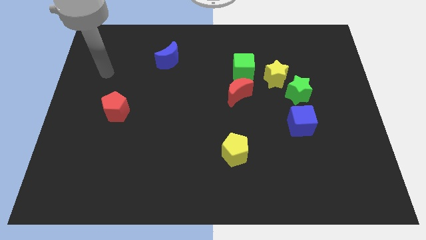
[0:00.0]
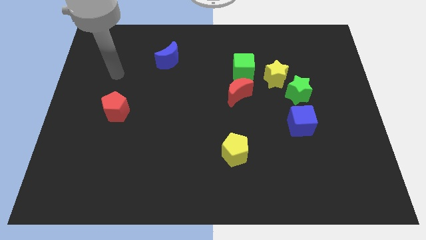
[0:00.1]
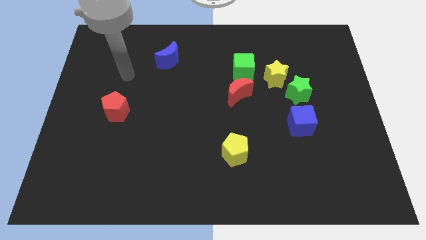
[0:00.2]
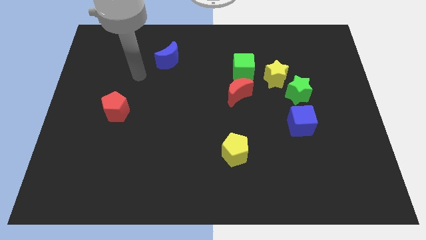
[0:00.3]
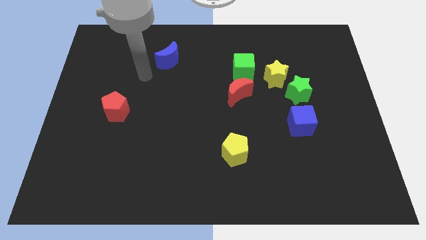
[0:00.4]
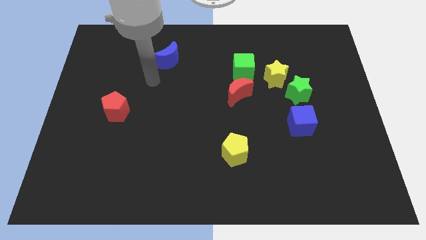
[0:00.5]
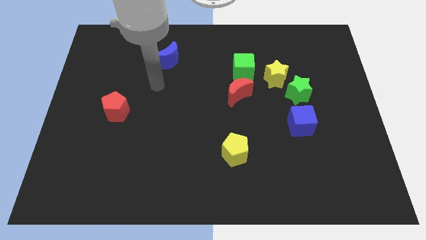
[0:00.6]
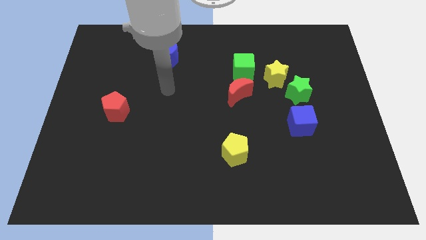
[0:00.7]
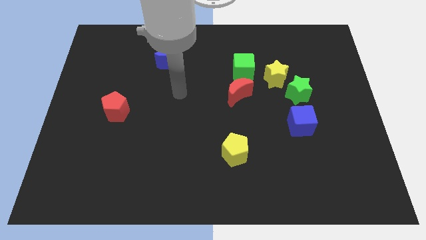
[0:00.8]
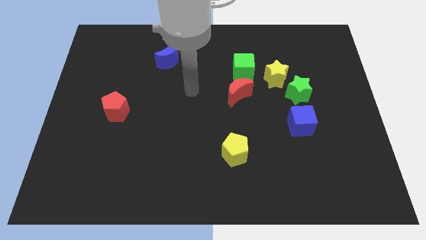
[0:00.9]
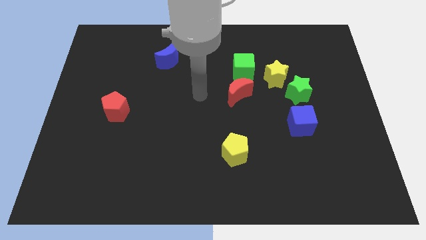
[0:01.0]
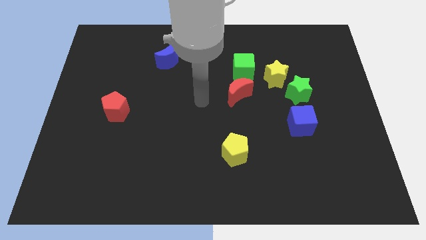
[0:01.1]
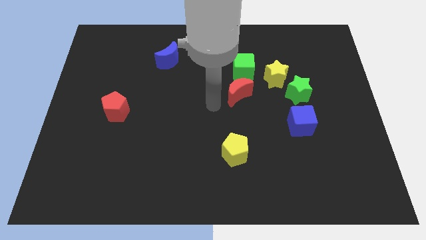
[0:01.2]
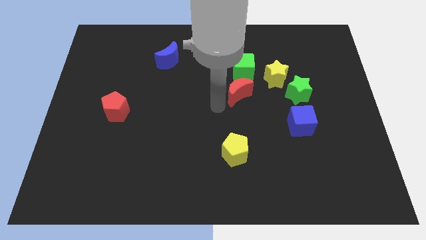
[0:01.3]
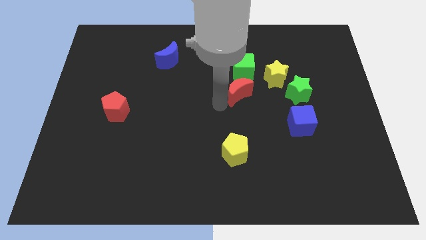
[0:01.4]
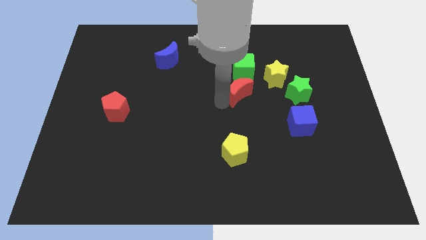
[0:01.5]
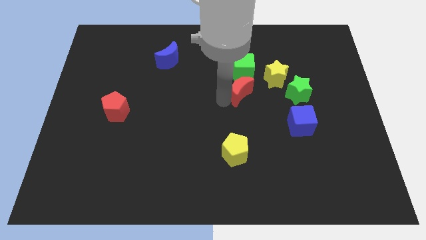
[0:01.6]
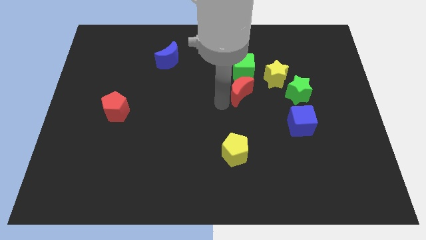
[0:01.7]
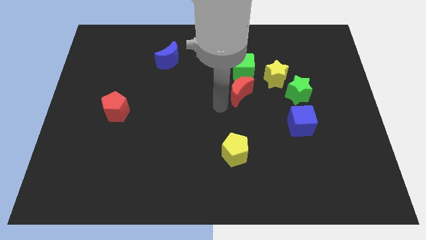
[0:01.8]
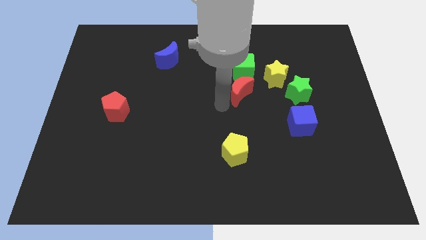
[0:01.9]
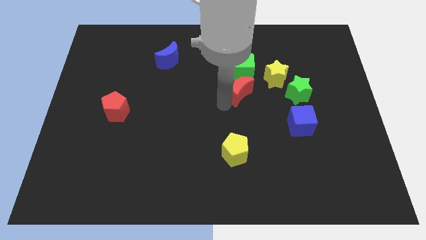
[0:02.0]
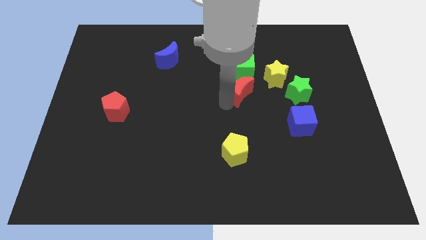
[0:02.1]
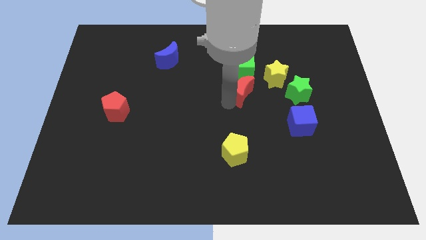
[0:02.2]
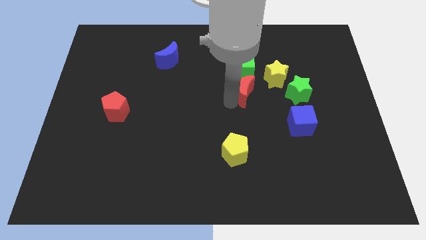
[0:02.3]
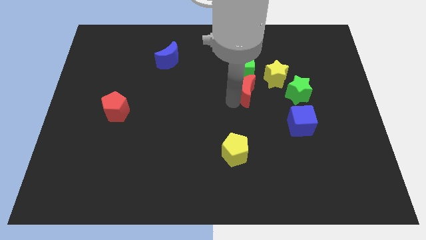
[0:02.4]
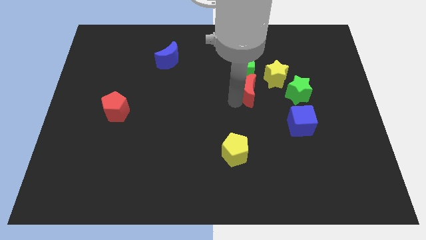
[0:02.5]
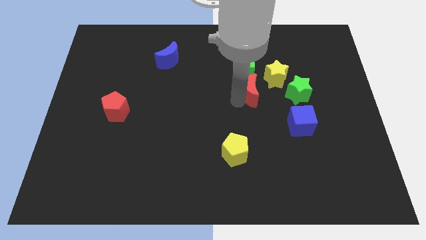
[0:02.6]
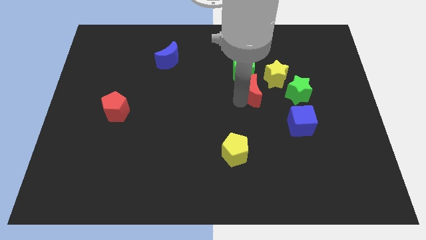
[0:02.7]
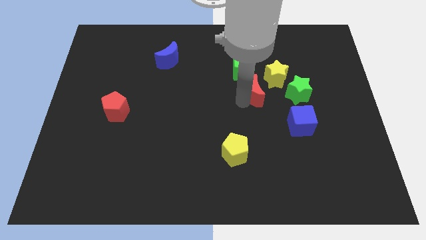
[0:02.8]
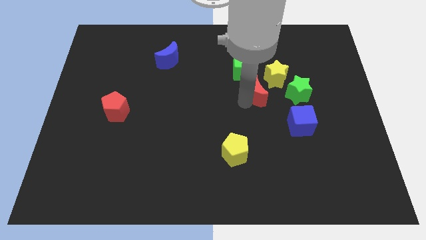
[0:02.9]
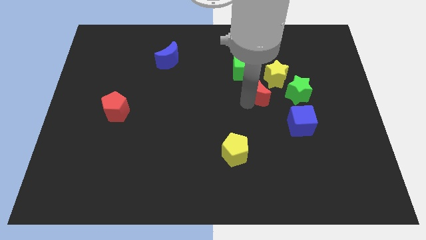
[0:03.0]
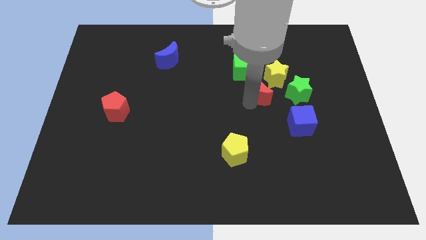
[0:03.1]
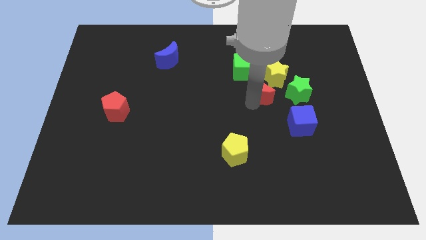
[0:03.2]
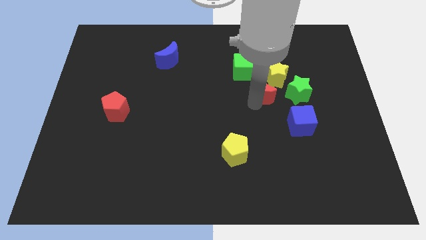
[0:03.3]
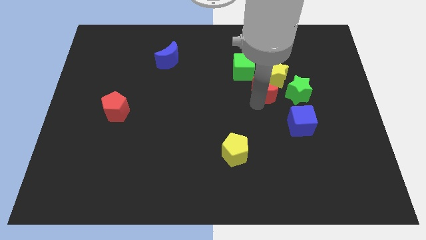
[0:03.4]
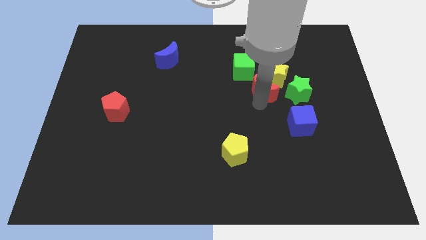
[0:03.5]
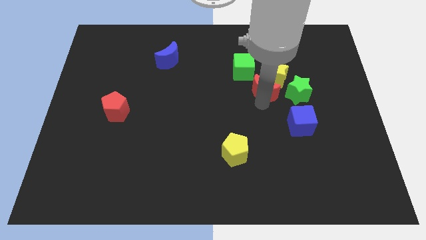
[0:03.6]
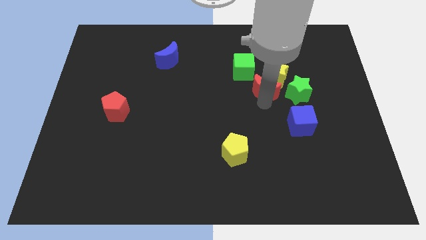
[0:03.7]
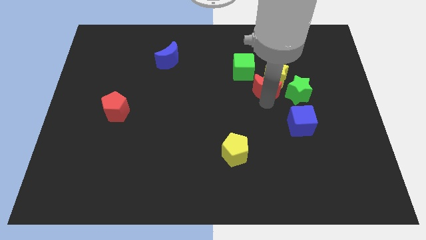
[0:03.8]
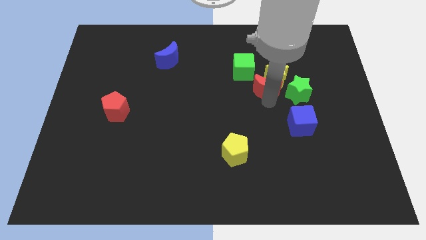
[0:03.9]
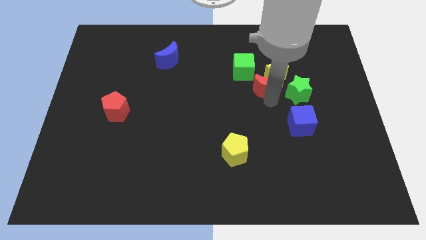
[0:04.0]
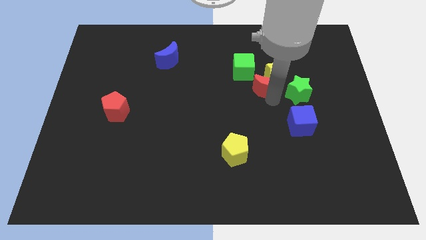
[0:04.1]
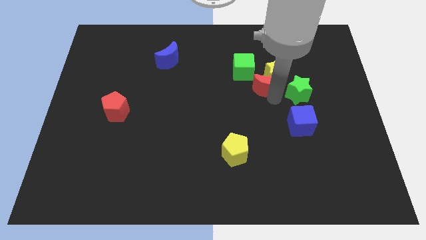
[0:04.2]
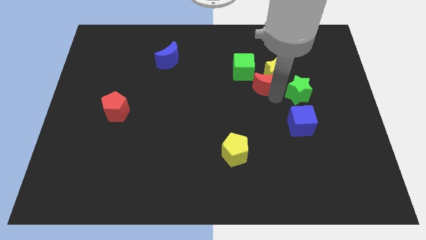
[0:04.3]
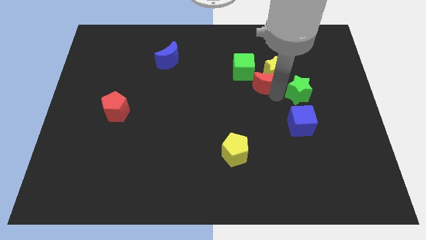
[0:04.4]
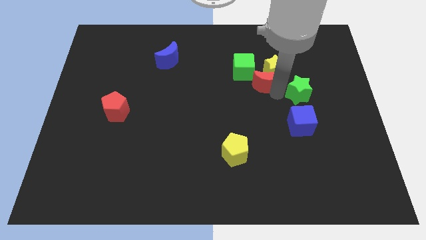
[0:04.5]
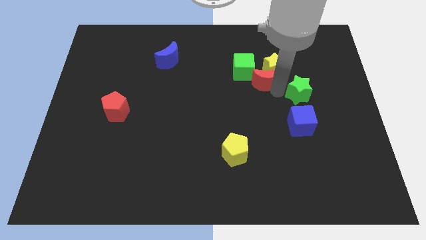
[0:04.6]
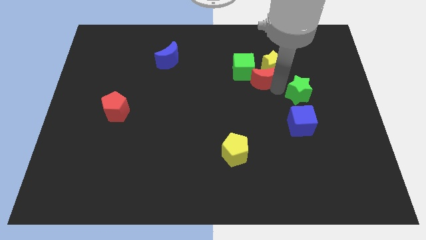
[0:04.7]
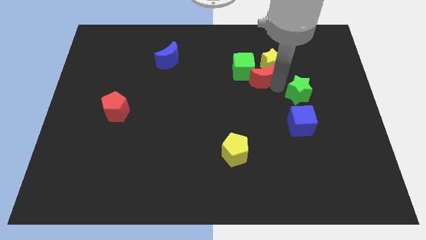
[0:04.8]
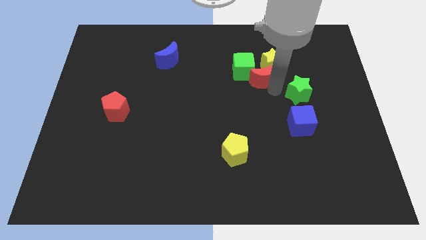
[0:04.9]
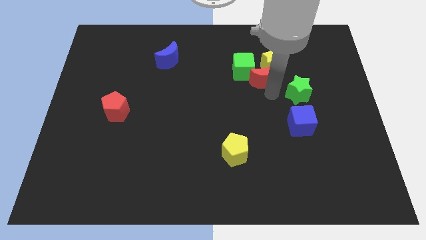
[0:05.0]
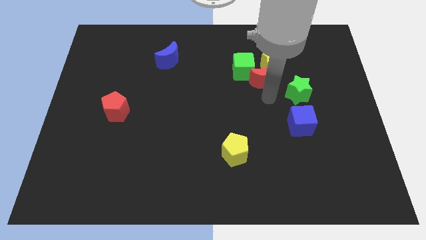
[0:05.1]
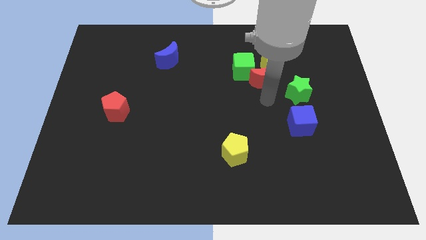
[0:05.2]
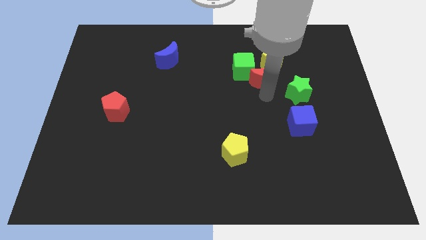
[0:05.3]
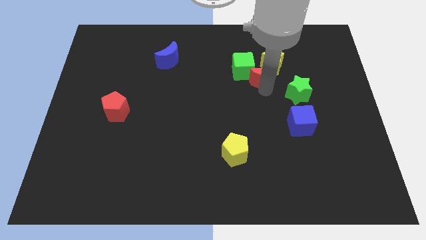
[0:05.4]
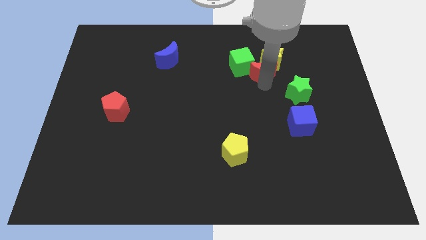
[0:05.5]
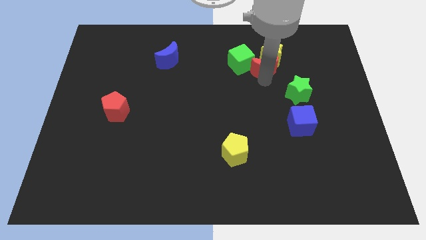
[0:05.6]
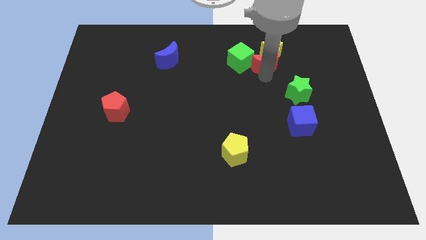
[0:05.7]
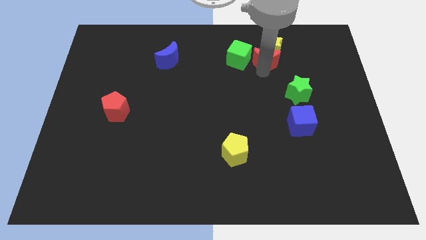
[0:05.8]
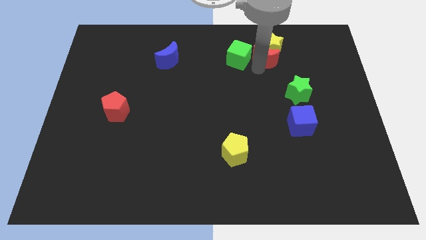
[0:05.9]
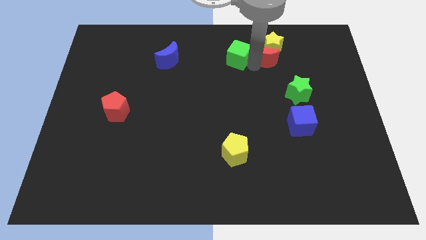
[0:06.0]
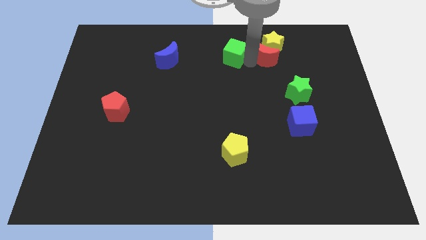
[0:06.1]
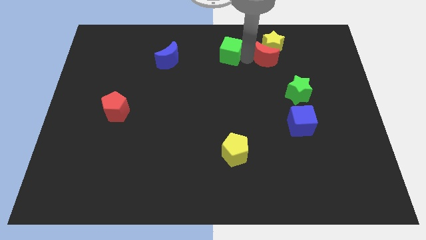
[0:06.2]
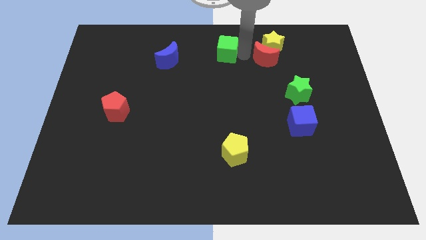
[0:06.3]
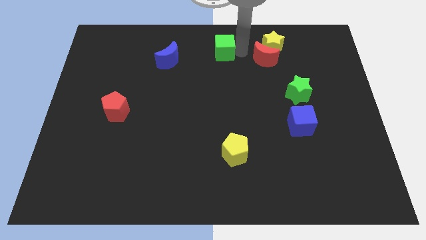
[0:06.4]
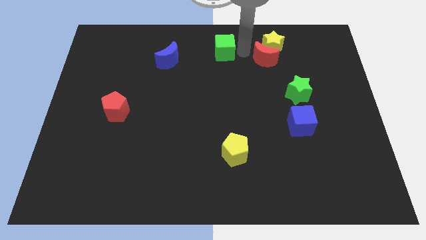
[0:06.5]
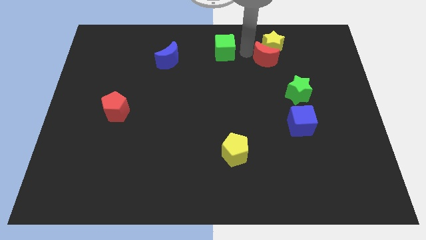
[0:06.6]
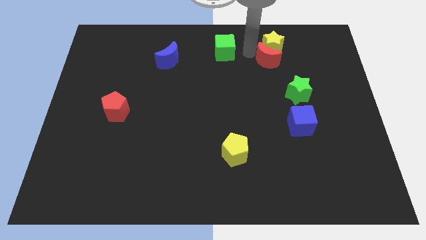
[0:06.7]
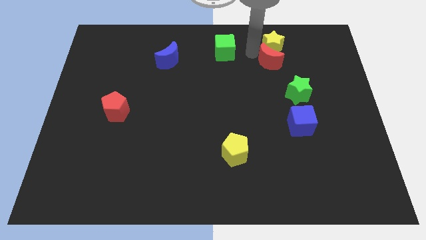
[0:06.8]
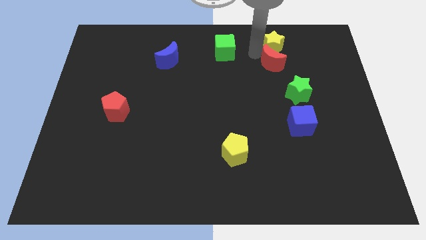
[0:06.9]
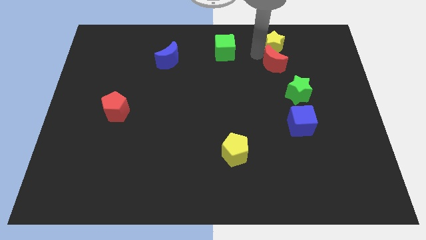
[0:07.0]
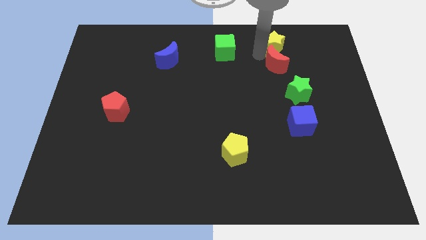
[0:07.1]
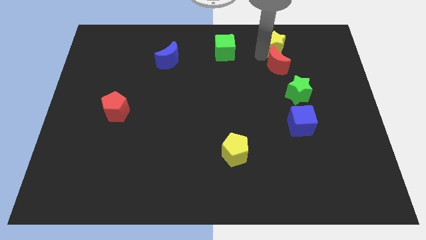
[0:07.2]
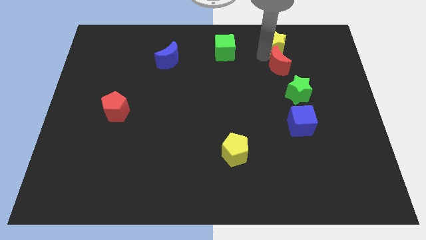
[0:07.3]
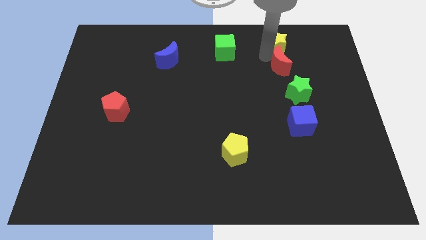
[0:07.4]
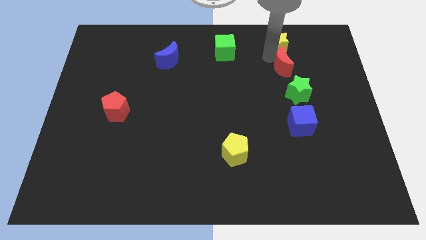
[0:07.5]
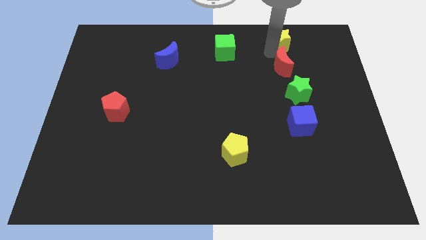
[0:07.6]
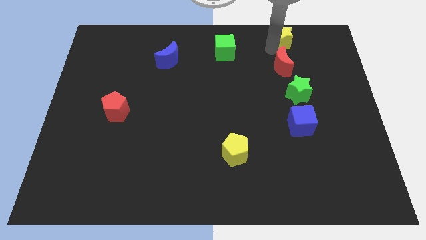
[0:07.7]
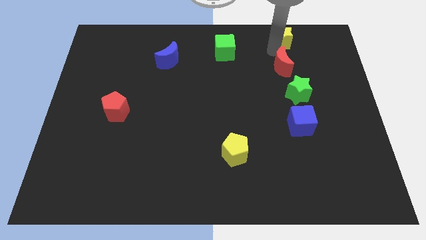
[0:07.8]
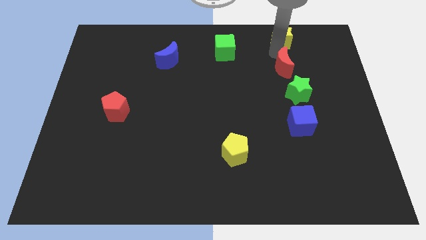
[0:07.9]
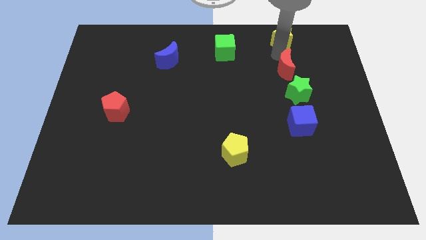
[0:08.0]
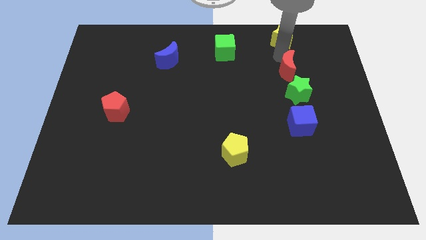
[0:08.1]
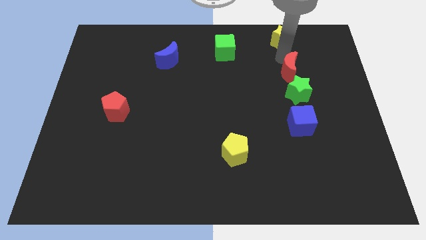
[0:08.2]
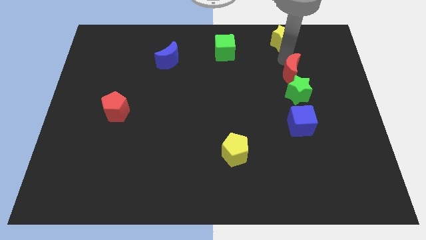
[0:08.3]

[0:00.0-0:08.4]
push the red moon to the top of the blue cube
